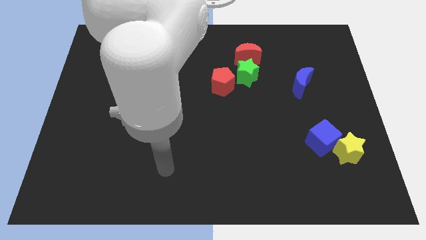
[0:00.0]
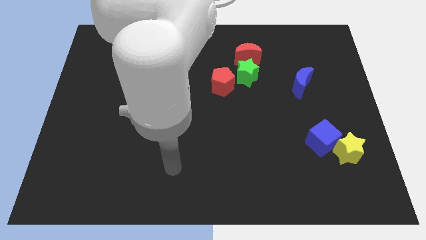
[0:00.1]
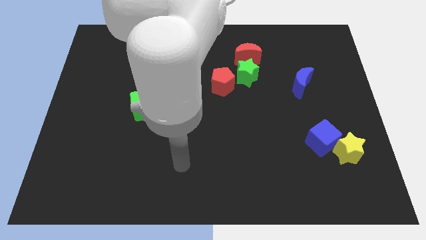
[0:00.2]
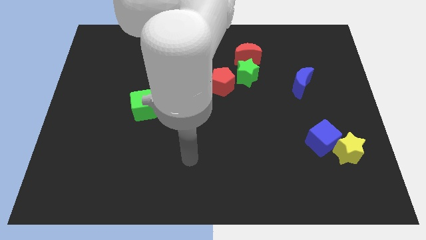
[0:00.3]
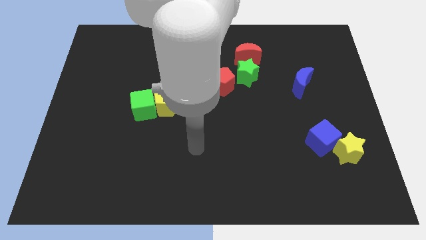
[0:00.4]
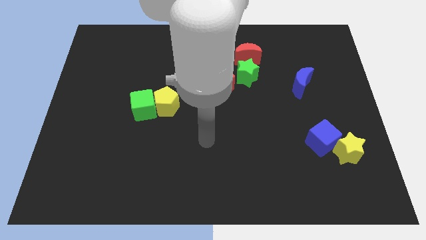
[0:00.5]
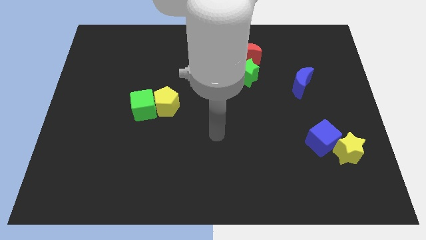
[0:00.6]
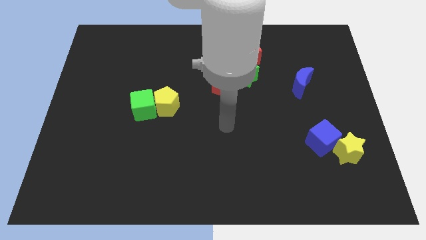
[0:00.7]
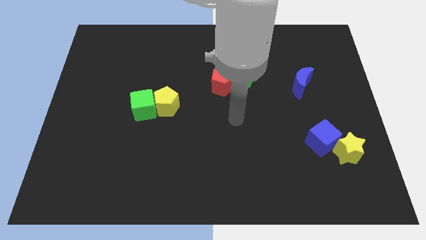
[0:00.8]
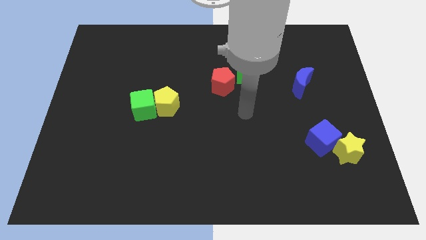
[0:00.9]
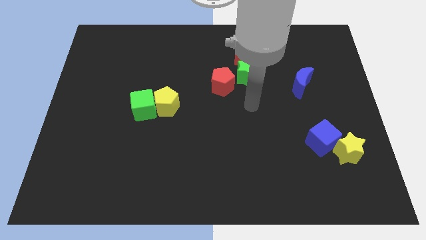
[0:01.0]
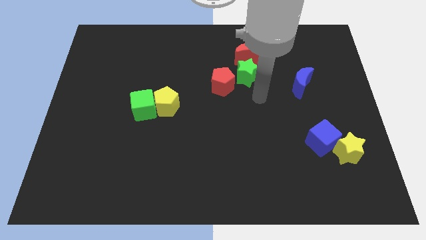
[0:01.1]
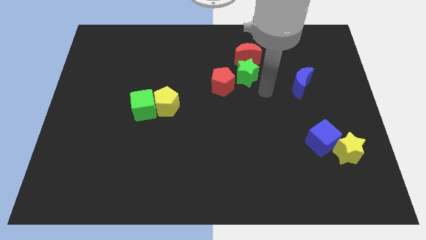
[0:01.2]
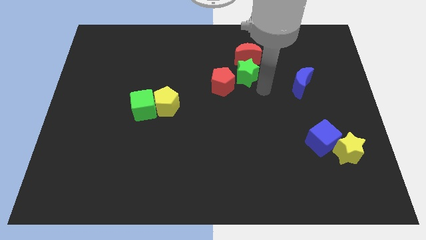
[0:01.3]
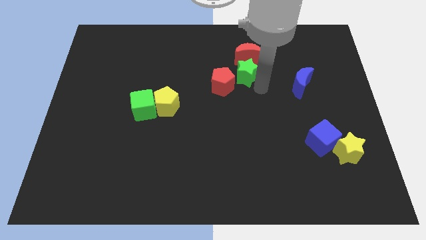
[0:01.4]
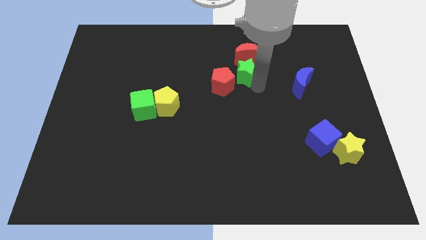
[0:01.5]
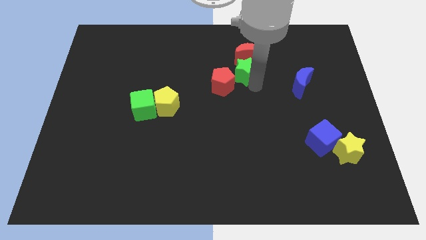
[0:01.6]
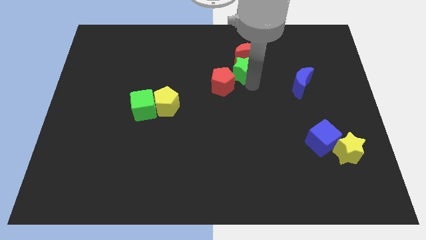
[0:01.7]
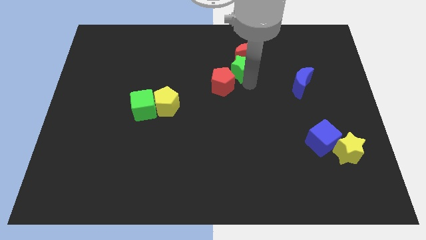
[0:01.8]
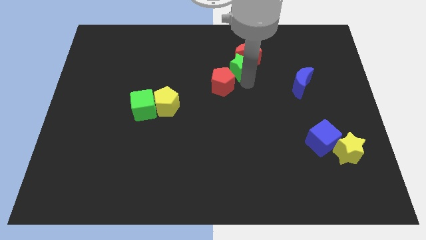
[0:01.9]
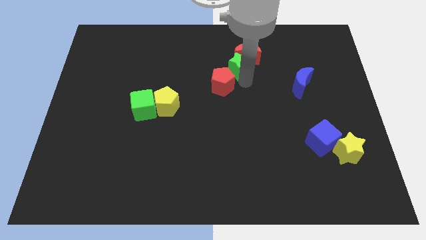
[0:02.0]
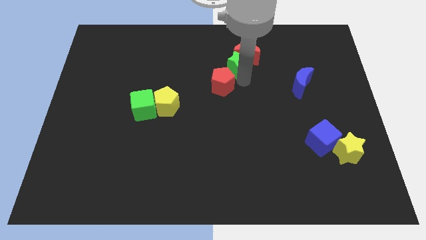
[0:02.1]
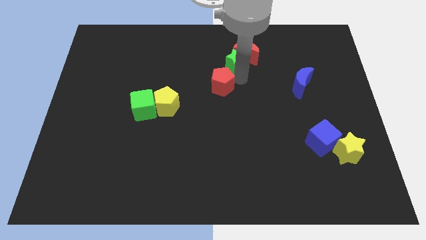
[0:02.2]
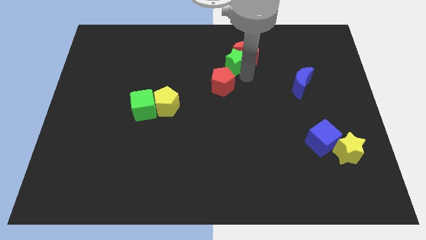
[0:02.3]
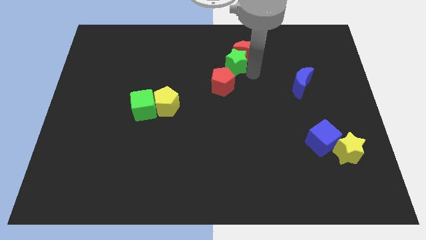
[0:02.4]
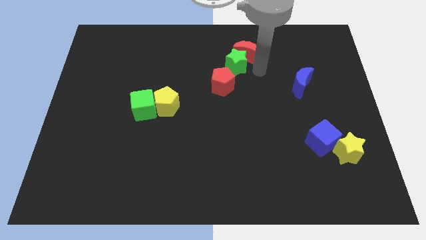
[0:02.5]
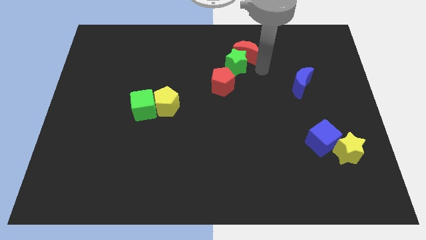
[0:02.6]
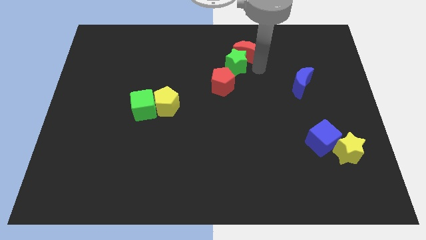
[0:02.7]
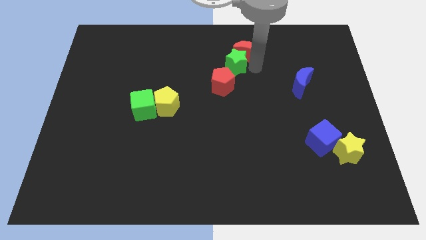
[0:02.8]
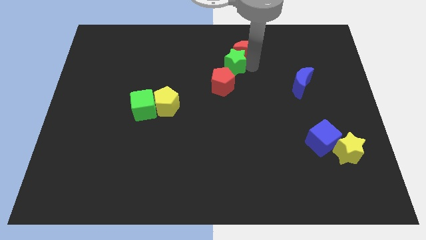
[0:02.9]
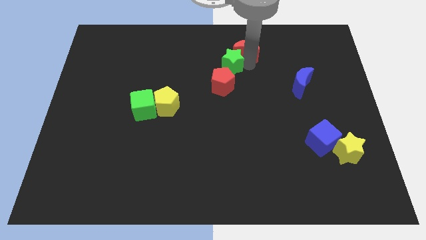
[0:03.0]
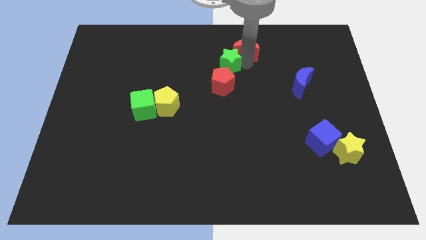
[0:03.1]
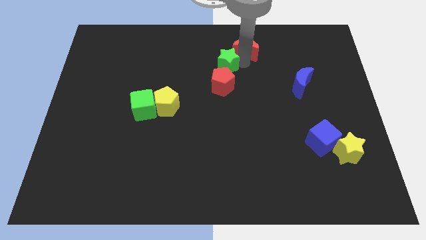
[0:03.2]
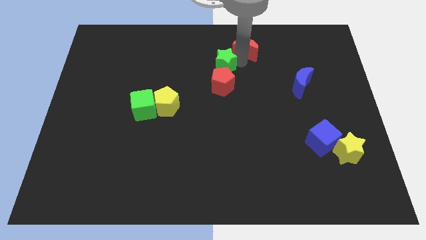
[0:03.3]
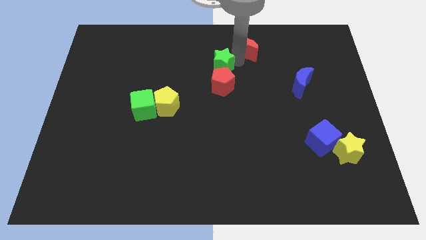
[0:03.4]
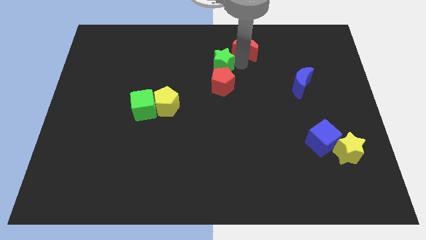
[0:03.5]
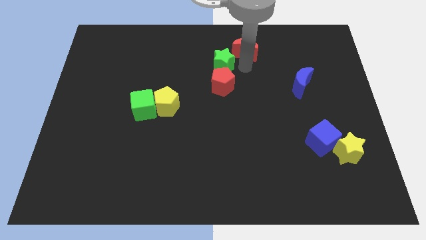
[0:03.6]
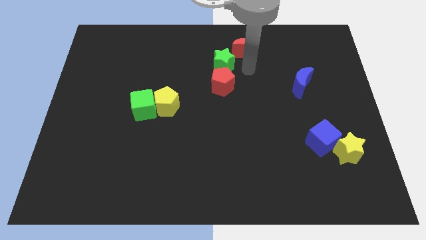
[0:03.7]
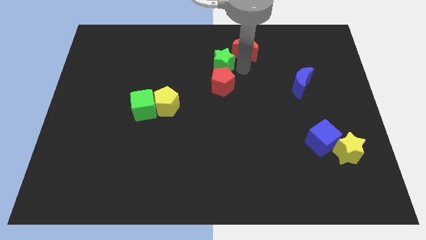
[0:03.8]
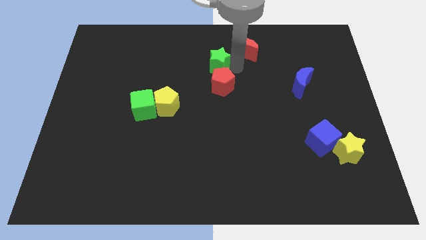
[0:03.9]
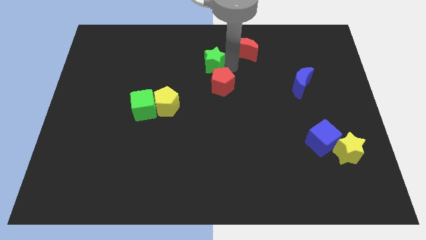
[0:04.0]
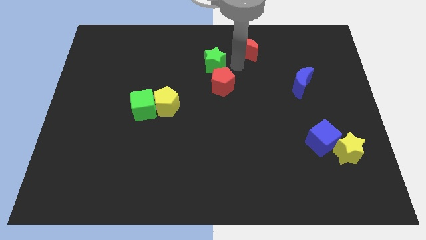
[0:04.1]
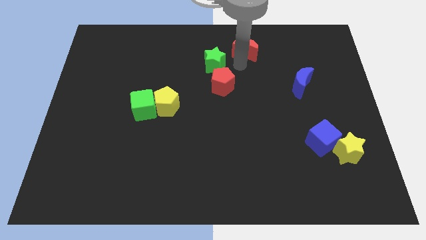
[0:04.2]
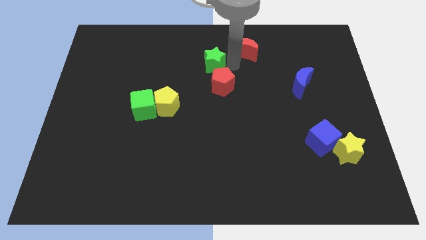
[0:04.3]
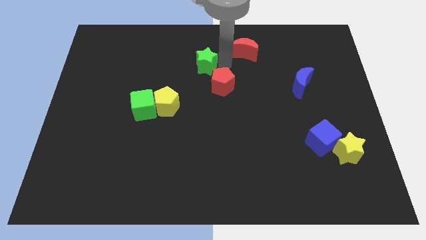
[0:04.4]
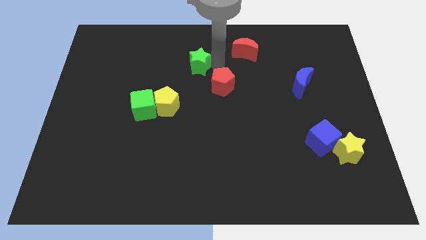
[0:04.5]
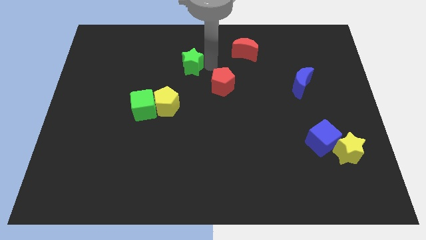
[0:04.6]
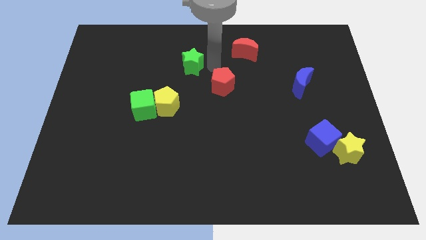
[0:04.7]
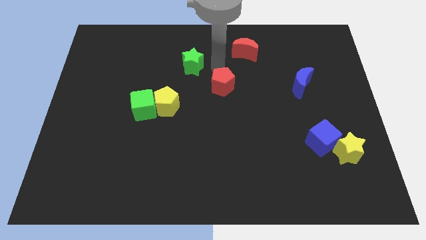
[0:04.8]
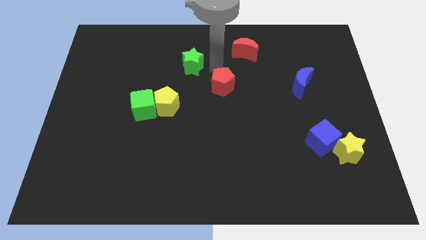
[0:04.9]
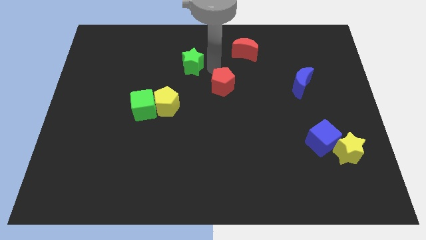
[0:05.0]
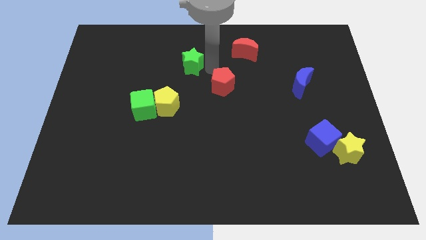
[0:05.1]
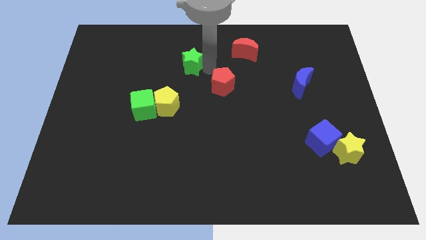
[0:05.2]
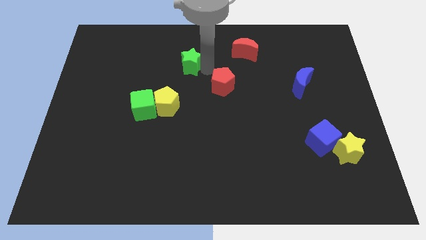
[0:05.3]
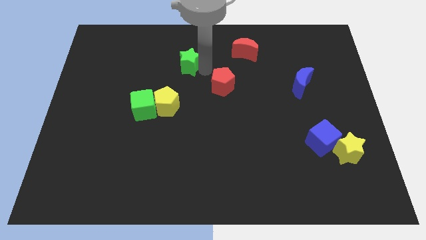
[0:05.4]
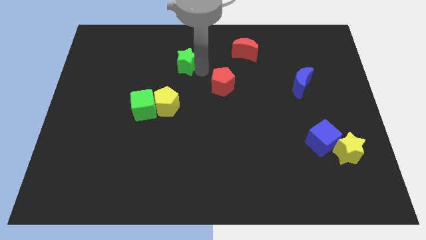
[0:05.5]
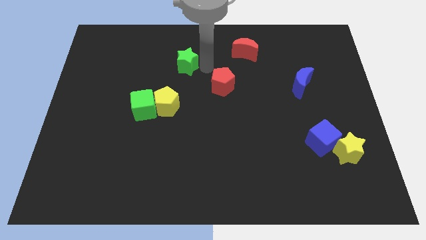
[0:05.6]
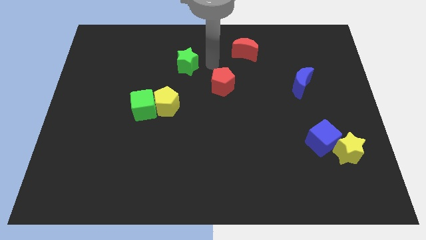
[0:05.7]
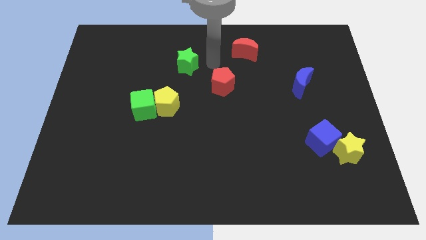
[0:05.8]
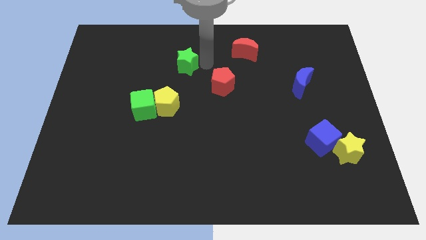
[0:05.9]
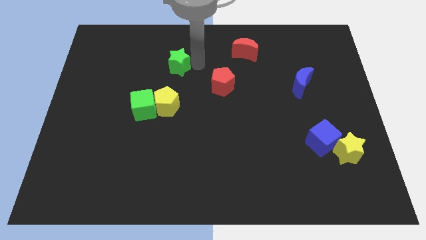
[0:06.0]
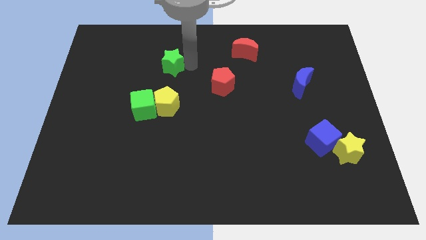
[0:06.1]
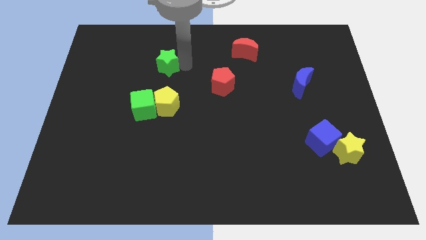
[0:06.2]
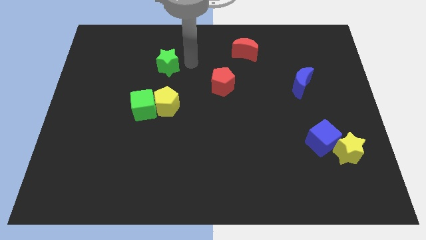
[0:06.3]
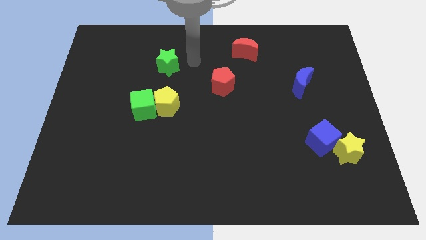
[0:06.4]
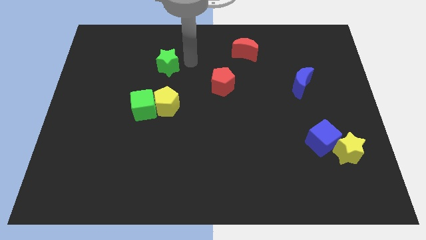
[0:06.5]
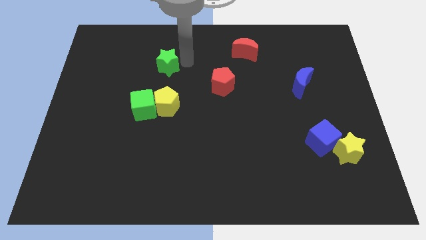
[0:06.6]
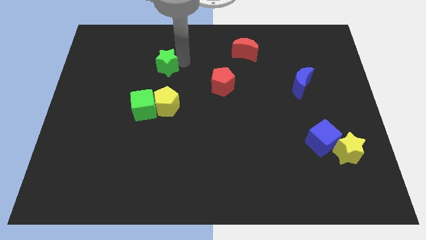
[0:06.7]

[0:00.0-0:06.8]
slide the green star to the left

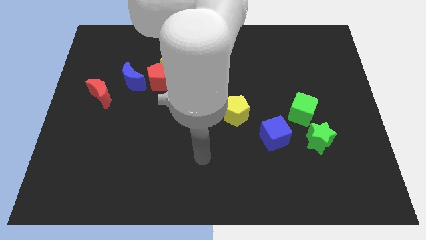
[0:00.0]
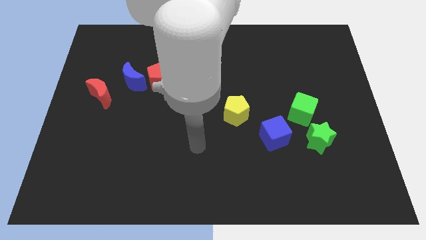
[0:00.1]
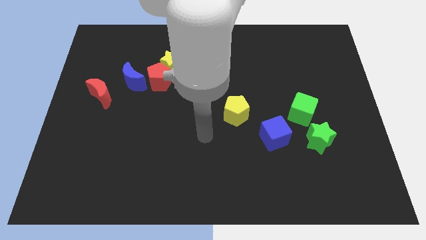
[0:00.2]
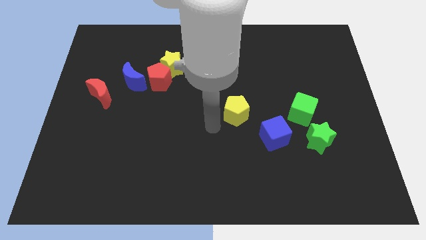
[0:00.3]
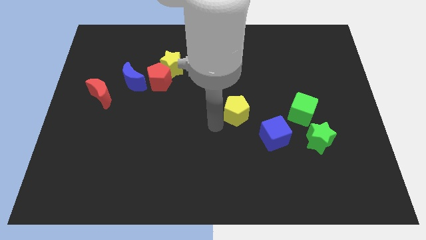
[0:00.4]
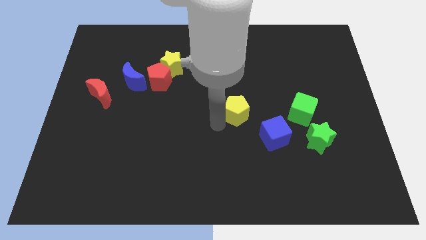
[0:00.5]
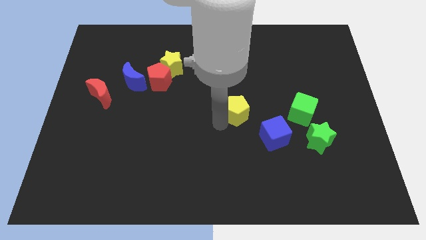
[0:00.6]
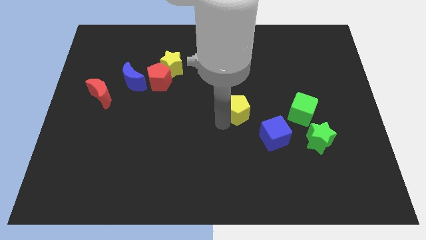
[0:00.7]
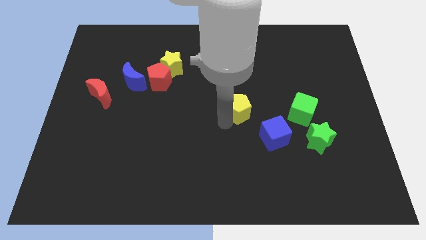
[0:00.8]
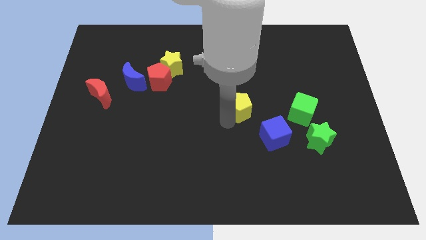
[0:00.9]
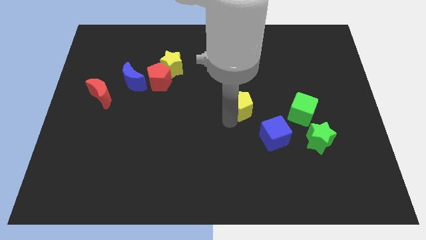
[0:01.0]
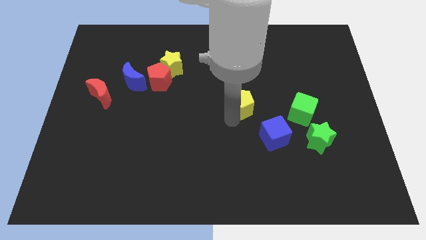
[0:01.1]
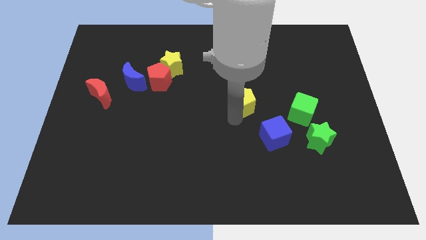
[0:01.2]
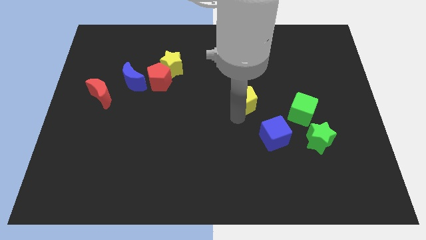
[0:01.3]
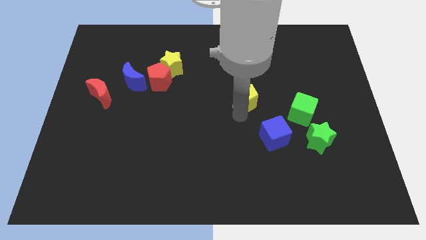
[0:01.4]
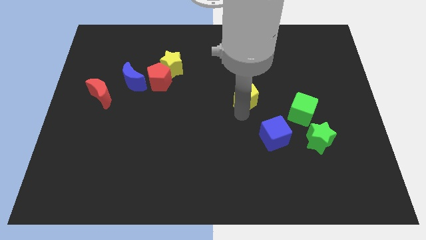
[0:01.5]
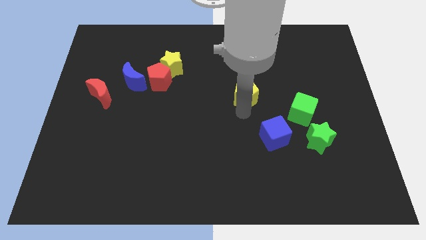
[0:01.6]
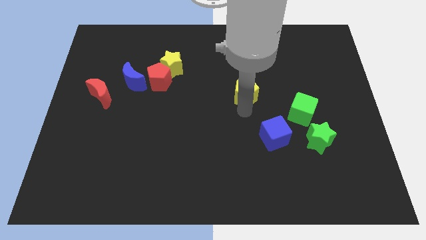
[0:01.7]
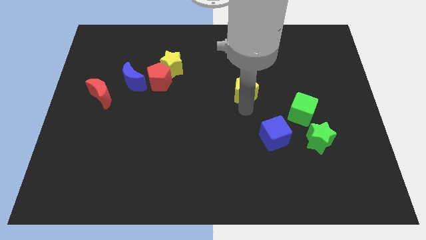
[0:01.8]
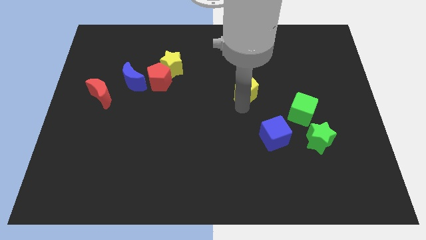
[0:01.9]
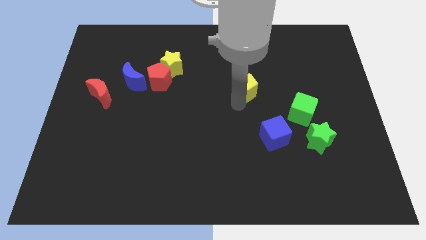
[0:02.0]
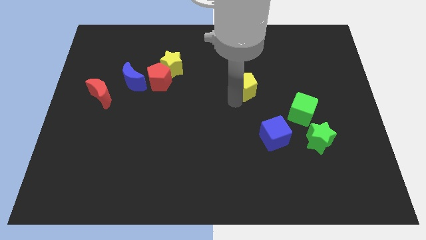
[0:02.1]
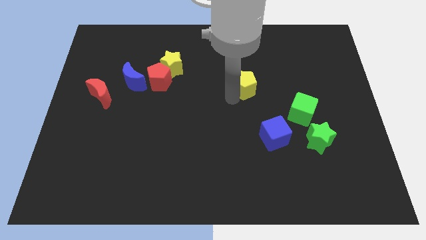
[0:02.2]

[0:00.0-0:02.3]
slightly move the yellow pentagon upwards and to the right diagonally
